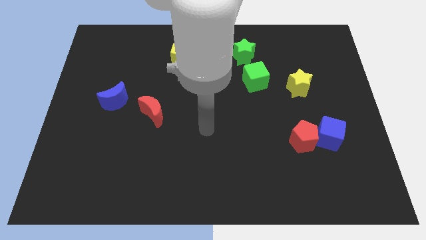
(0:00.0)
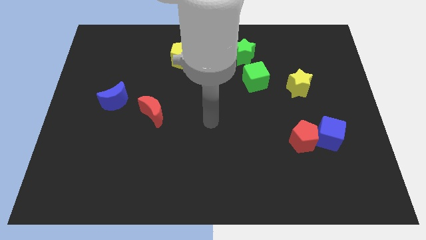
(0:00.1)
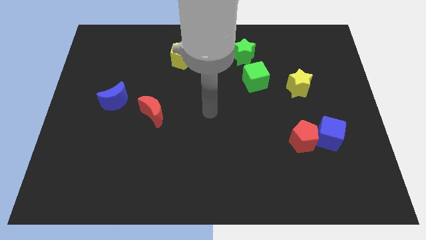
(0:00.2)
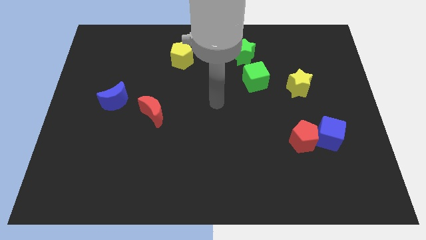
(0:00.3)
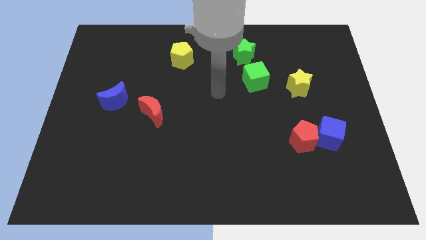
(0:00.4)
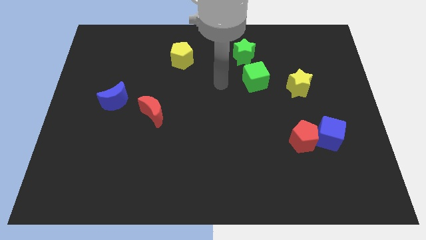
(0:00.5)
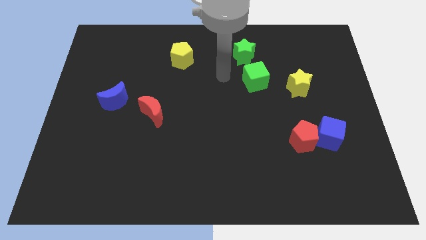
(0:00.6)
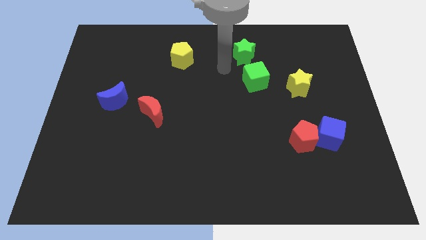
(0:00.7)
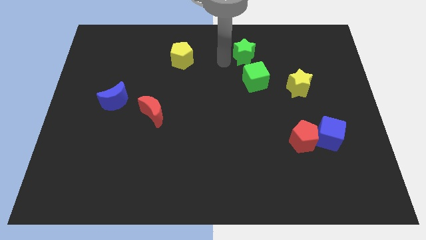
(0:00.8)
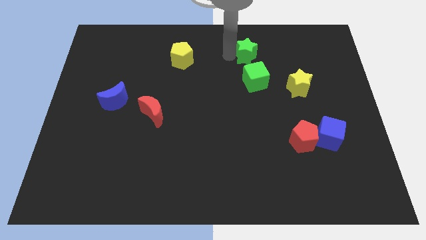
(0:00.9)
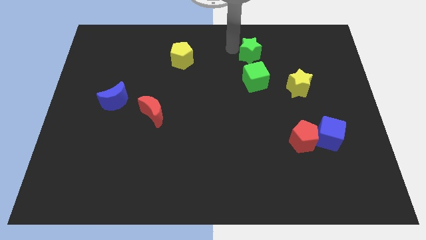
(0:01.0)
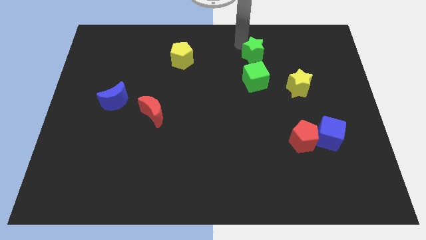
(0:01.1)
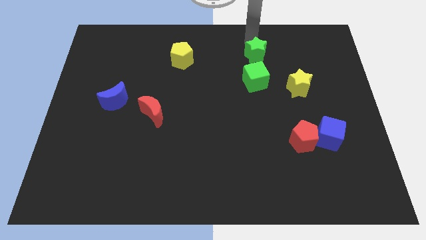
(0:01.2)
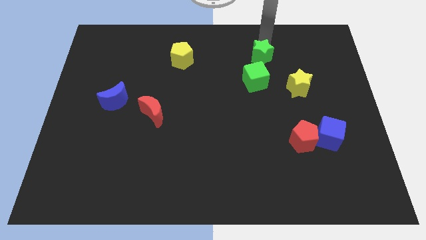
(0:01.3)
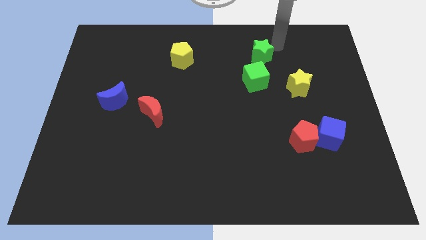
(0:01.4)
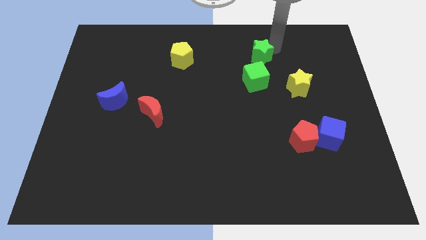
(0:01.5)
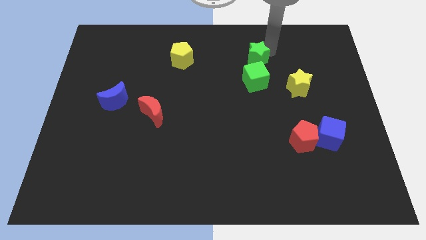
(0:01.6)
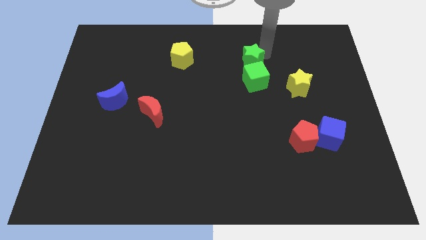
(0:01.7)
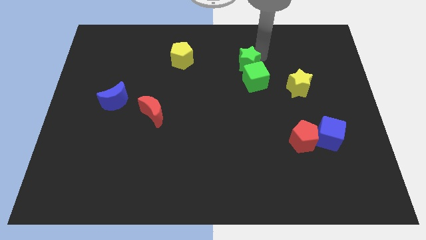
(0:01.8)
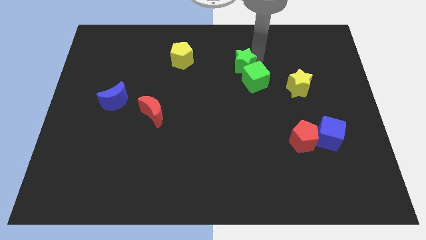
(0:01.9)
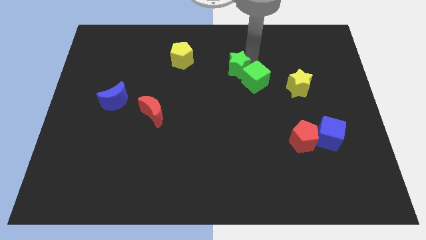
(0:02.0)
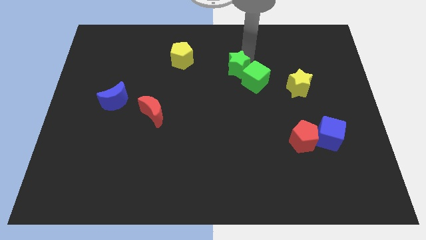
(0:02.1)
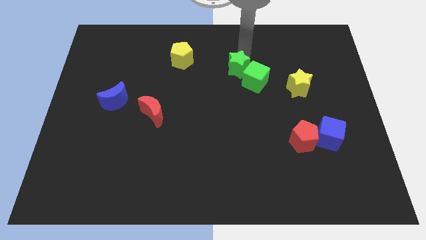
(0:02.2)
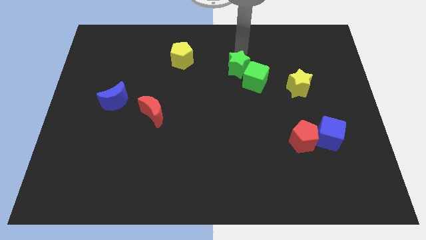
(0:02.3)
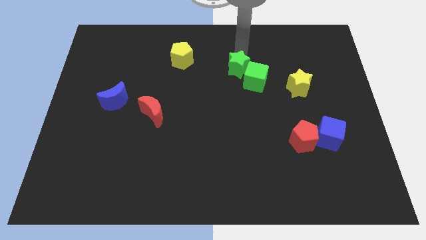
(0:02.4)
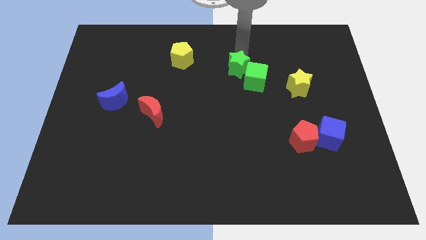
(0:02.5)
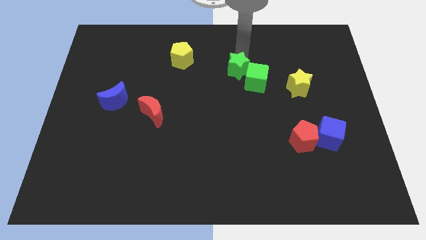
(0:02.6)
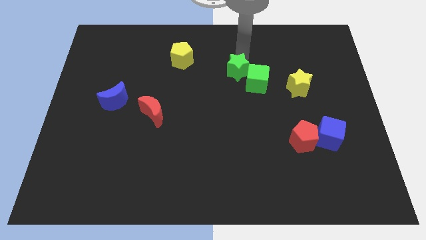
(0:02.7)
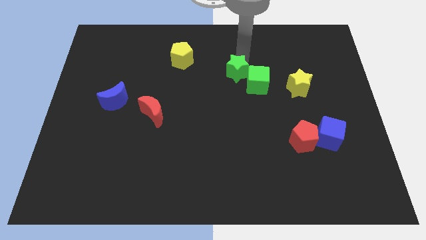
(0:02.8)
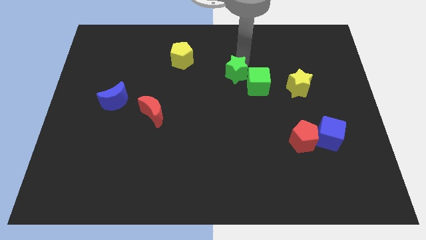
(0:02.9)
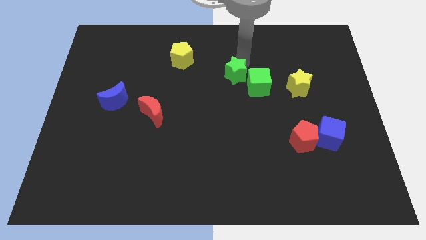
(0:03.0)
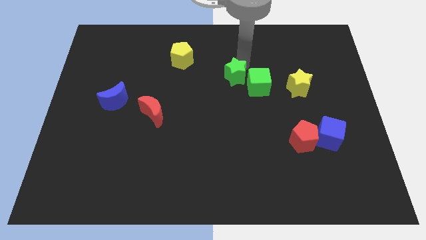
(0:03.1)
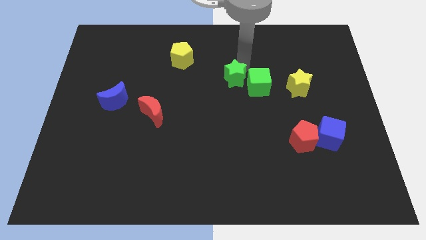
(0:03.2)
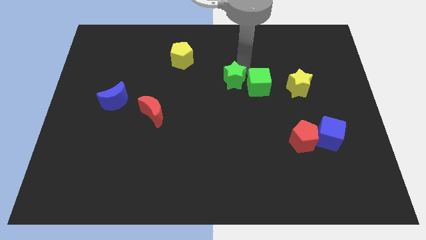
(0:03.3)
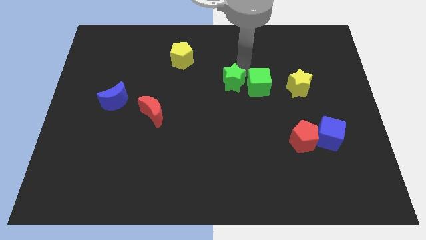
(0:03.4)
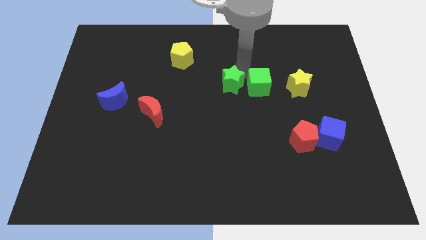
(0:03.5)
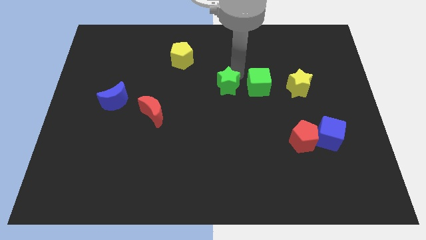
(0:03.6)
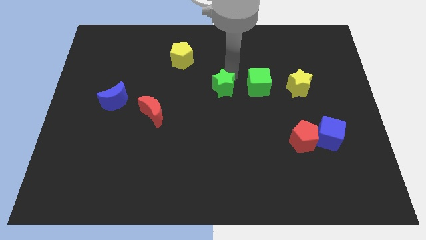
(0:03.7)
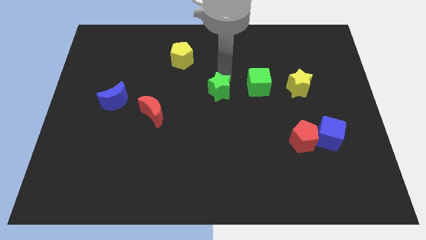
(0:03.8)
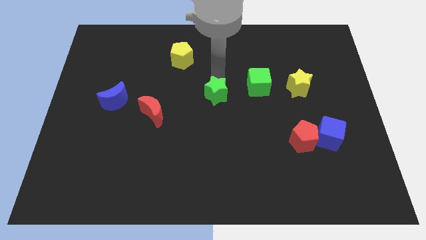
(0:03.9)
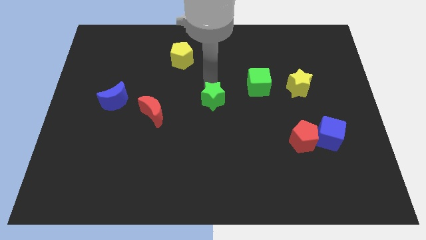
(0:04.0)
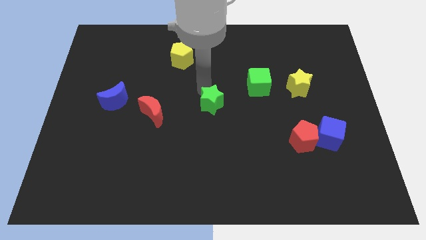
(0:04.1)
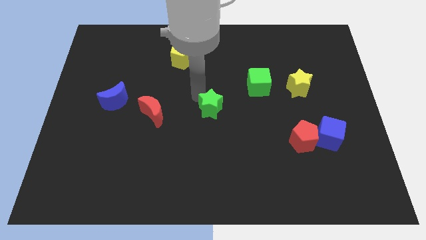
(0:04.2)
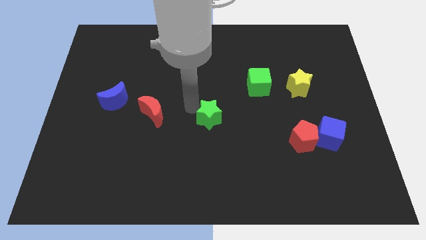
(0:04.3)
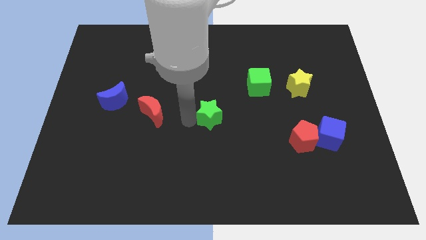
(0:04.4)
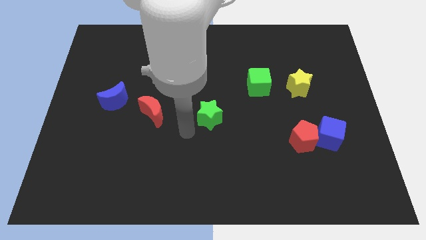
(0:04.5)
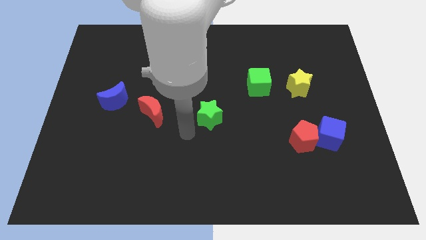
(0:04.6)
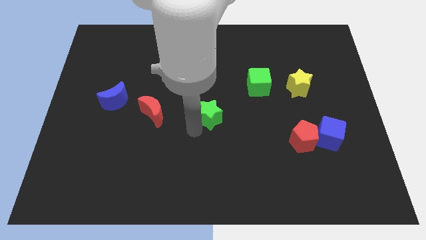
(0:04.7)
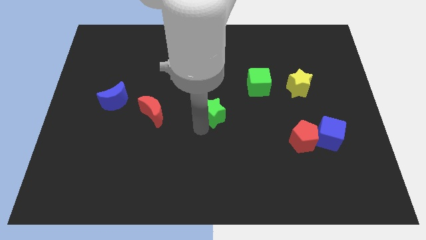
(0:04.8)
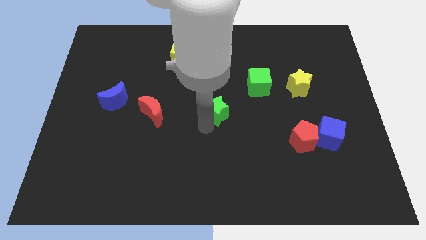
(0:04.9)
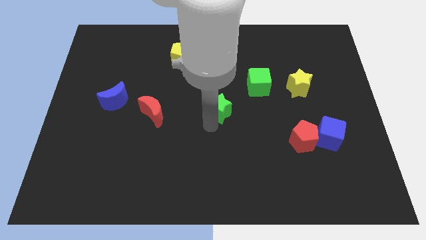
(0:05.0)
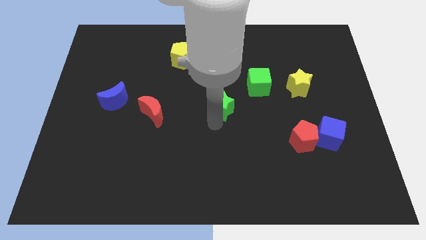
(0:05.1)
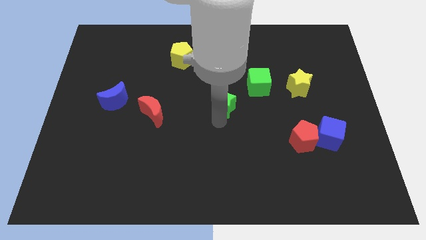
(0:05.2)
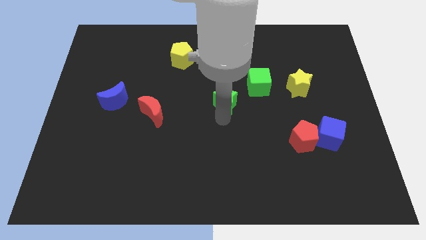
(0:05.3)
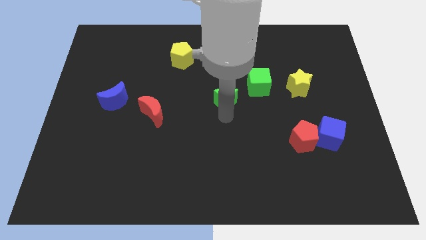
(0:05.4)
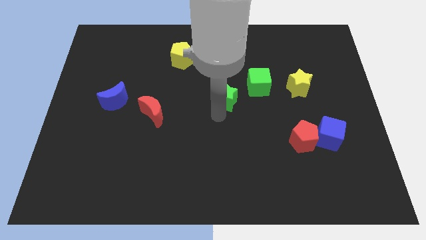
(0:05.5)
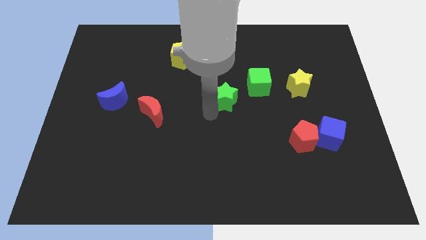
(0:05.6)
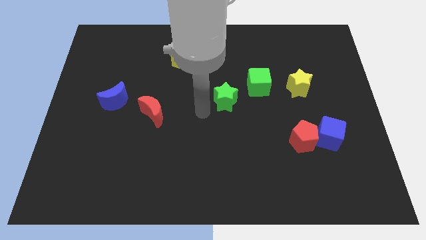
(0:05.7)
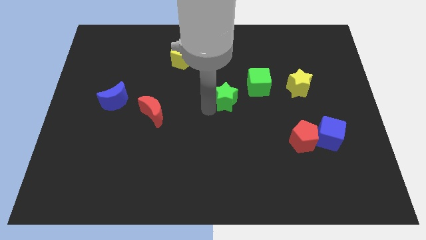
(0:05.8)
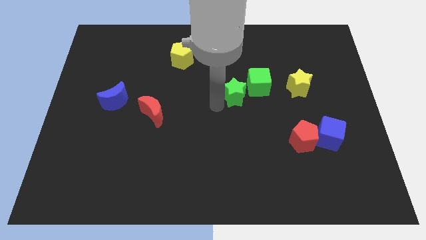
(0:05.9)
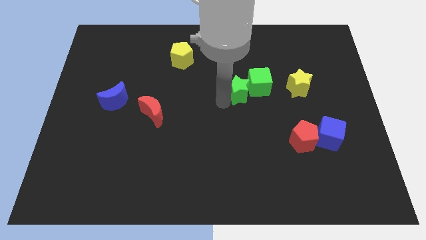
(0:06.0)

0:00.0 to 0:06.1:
slide the green star to the left of the yellow star

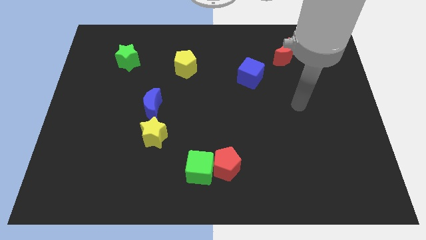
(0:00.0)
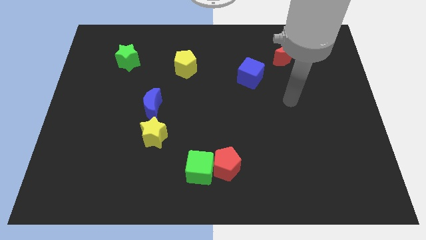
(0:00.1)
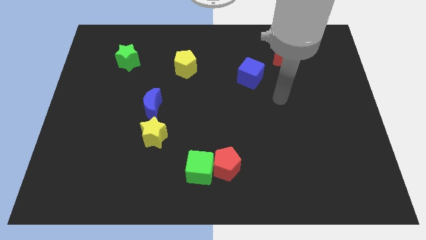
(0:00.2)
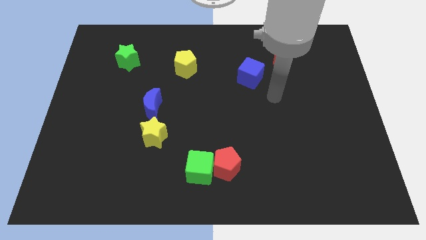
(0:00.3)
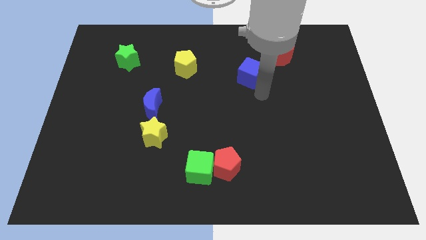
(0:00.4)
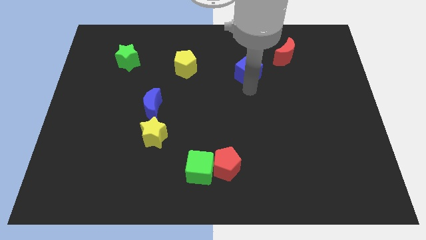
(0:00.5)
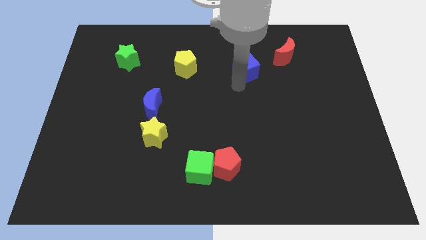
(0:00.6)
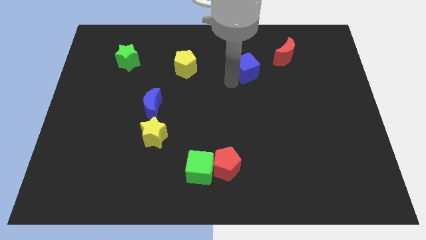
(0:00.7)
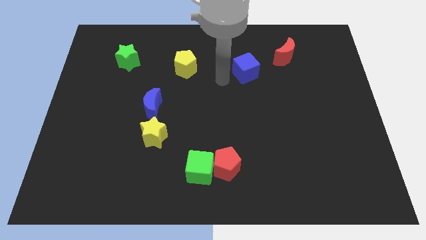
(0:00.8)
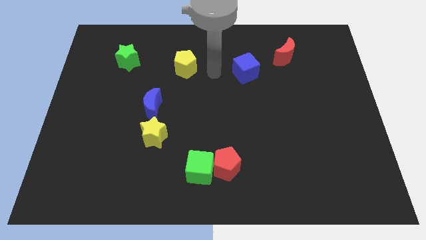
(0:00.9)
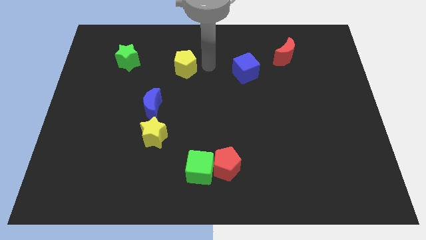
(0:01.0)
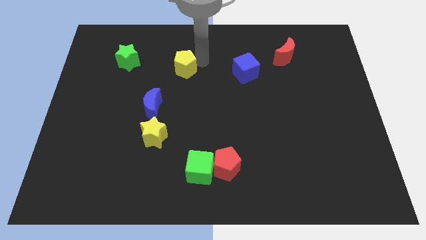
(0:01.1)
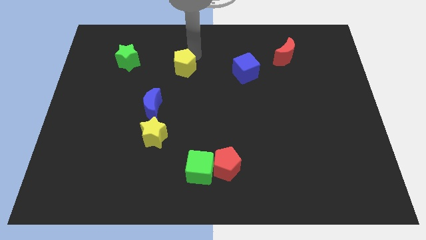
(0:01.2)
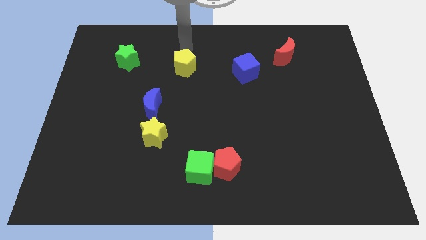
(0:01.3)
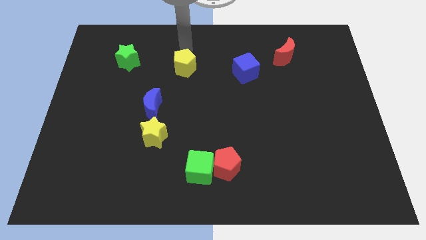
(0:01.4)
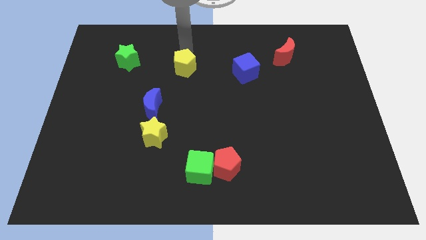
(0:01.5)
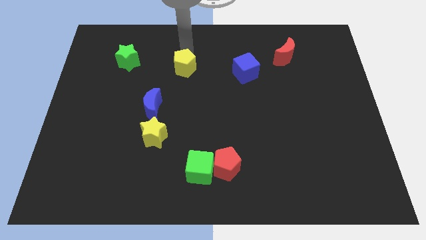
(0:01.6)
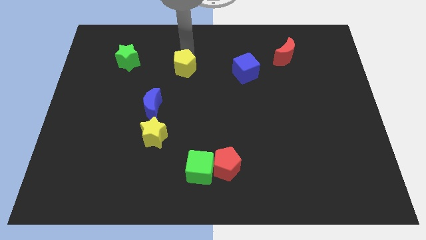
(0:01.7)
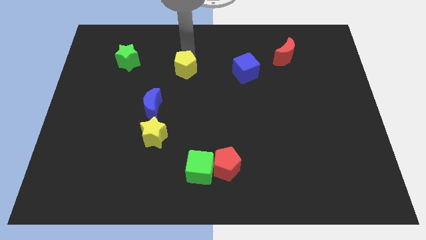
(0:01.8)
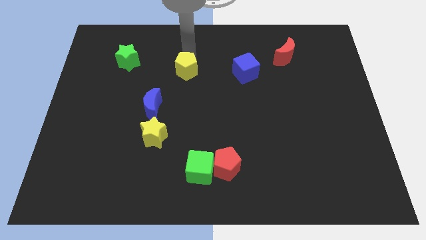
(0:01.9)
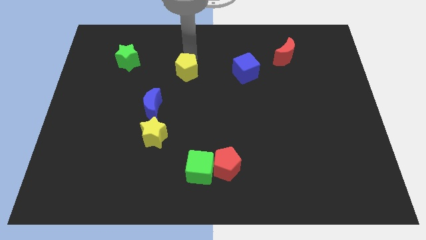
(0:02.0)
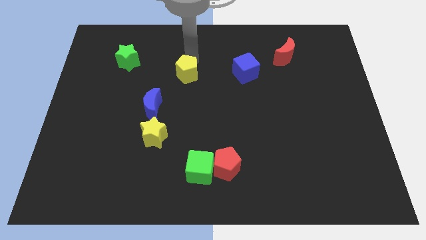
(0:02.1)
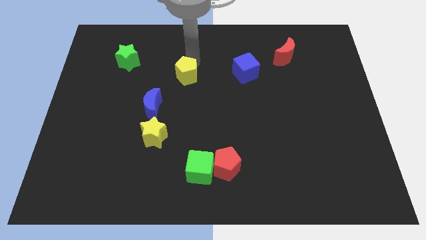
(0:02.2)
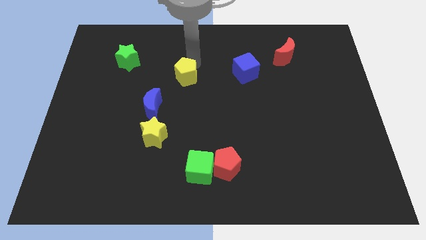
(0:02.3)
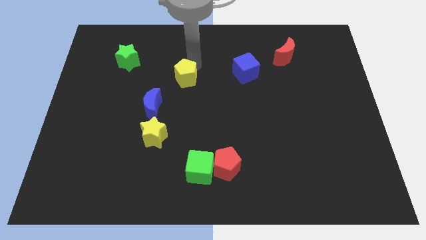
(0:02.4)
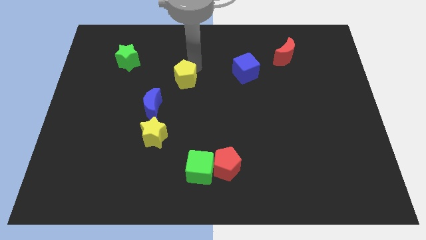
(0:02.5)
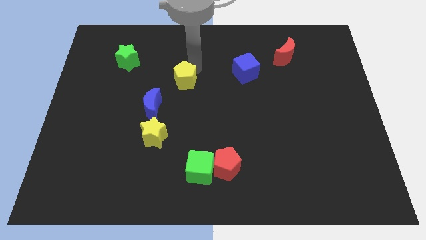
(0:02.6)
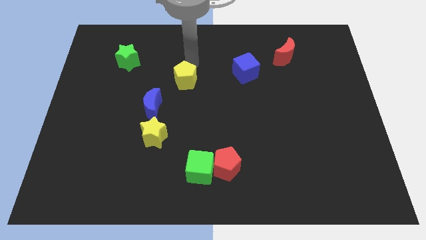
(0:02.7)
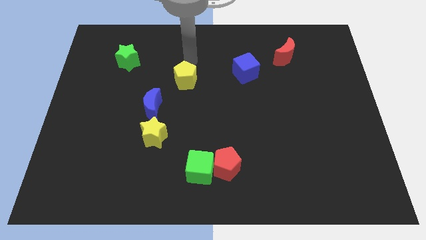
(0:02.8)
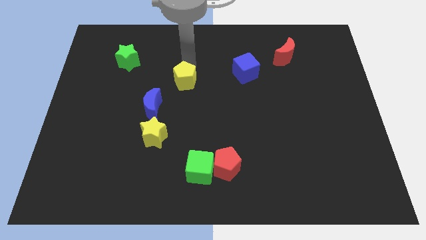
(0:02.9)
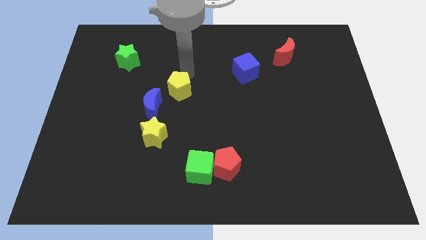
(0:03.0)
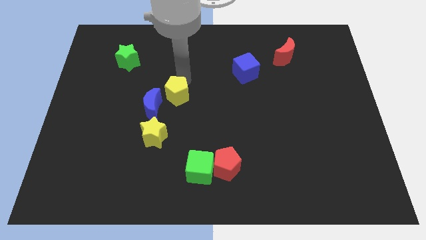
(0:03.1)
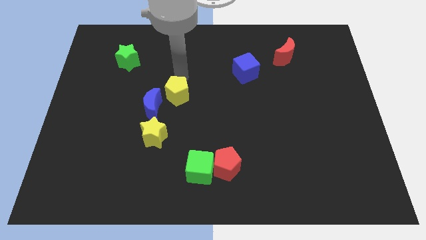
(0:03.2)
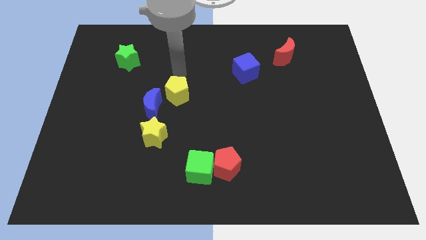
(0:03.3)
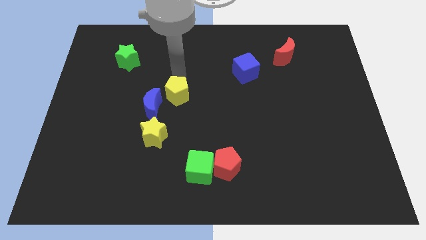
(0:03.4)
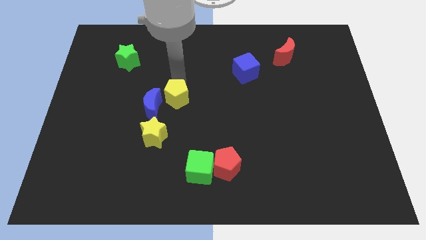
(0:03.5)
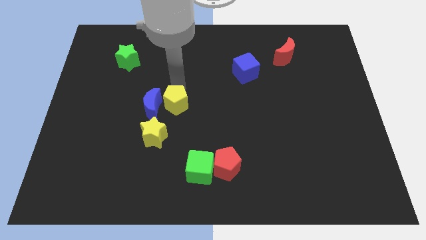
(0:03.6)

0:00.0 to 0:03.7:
move the yellow pentagon diagonally up and to the right of the yellow star
